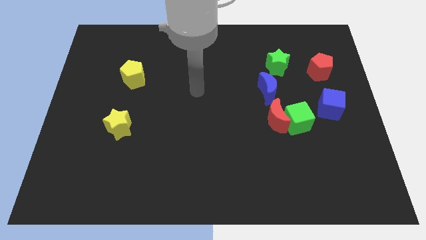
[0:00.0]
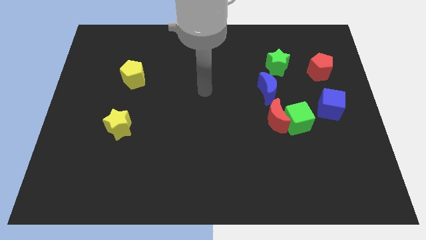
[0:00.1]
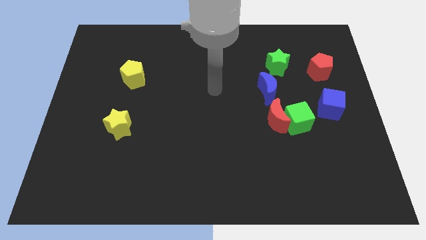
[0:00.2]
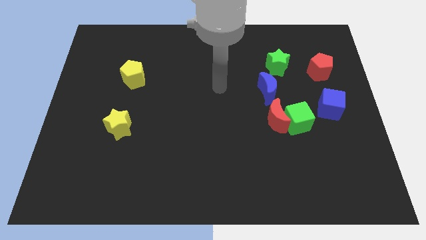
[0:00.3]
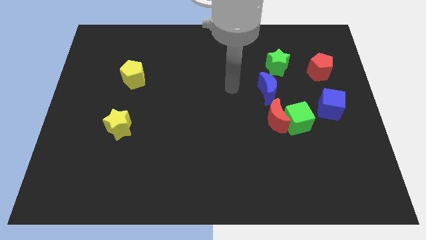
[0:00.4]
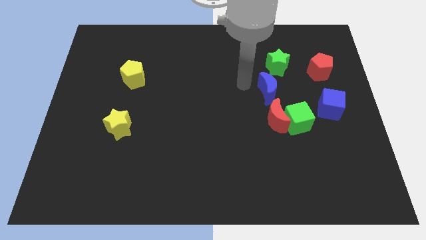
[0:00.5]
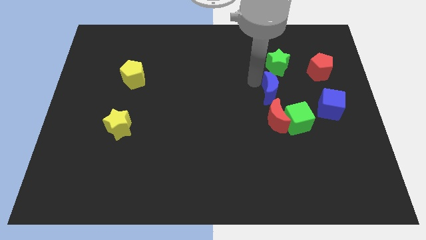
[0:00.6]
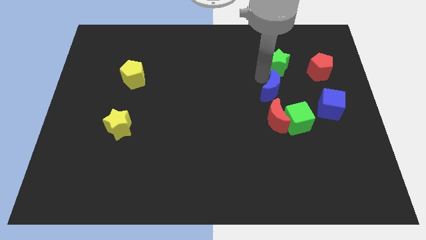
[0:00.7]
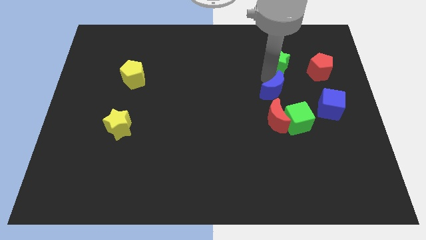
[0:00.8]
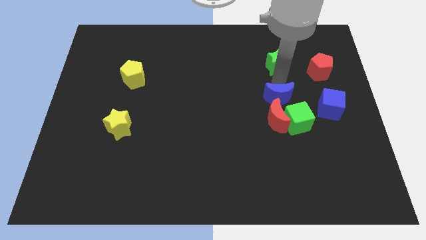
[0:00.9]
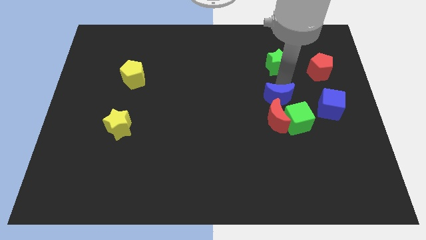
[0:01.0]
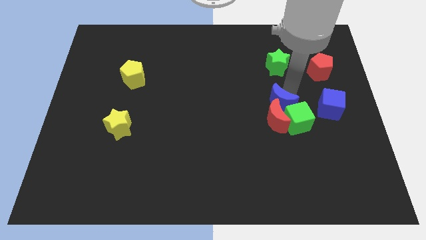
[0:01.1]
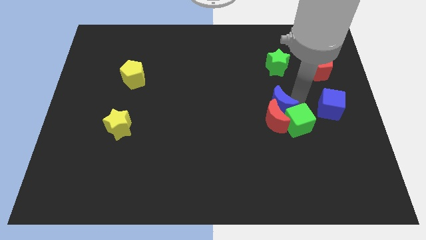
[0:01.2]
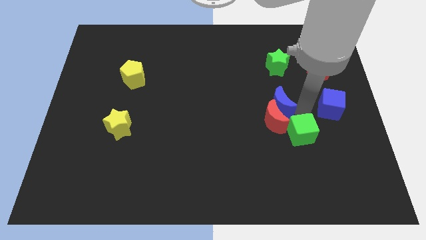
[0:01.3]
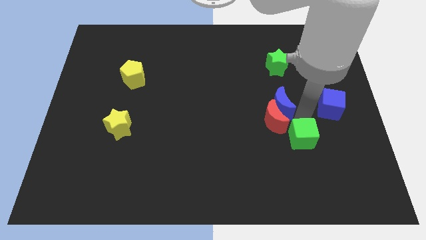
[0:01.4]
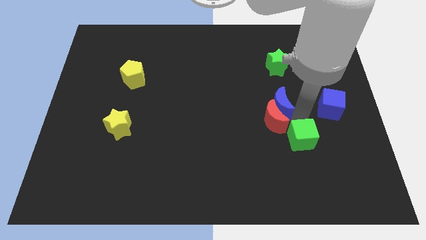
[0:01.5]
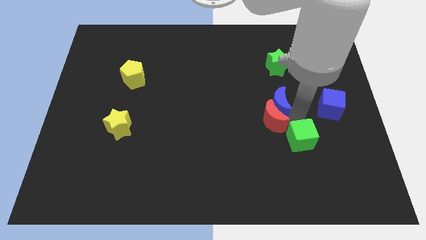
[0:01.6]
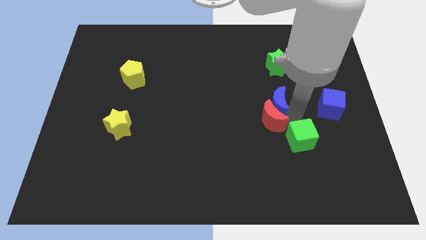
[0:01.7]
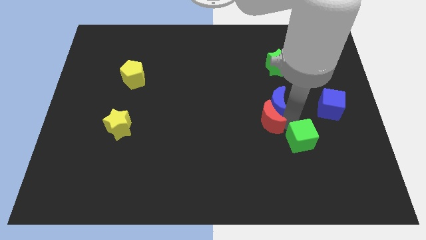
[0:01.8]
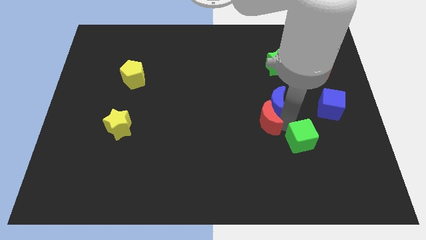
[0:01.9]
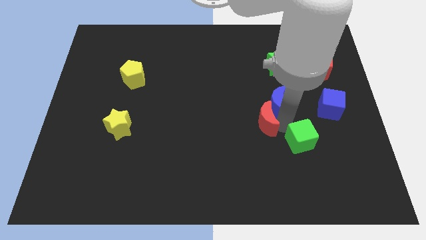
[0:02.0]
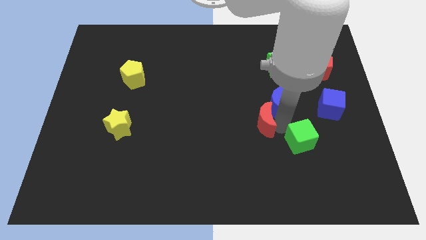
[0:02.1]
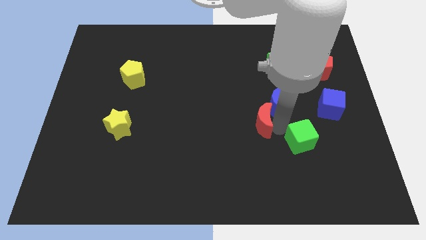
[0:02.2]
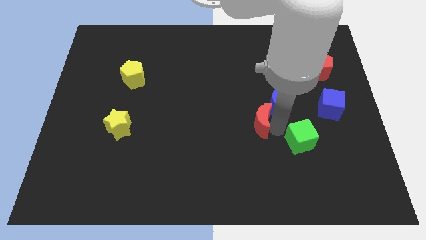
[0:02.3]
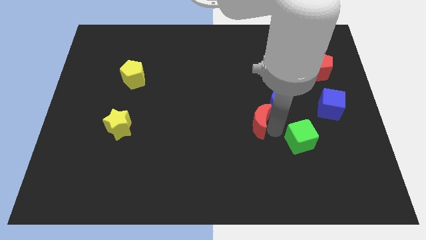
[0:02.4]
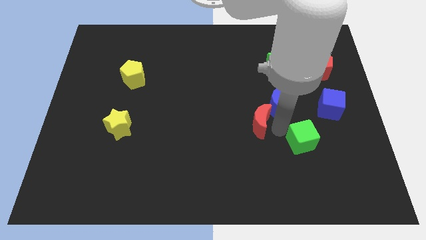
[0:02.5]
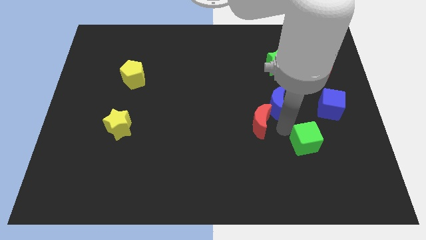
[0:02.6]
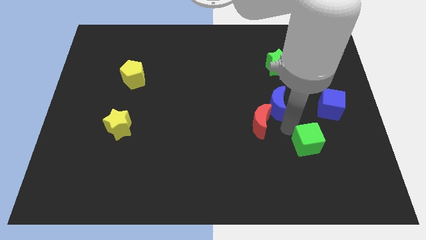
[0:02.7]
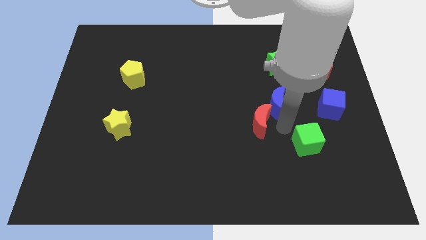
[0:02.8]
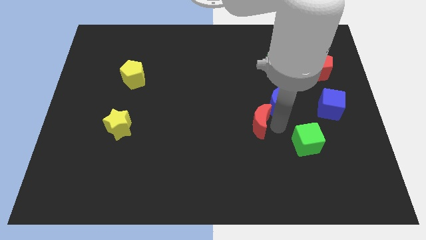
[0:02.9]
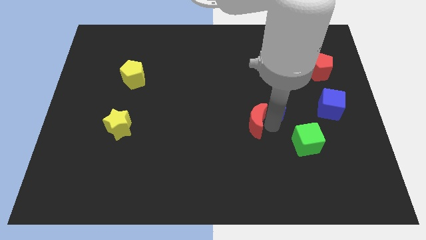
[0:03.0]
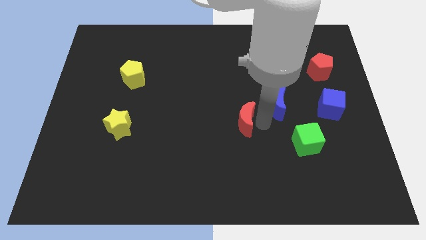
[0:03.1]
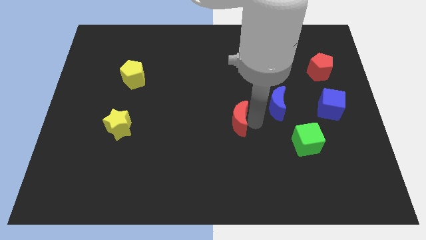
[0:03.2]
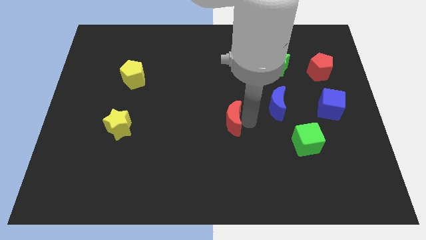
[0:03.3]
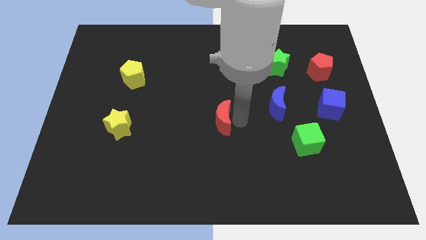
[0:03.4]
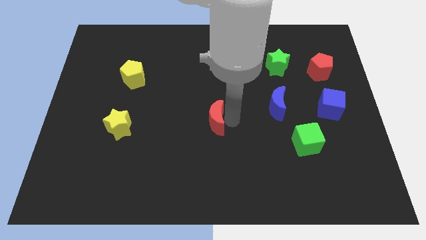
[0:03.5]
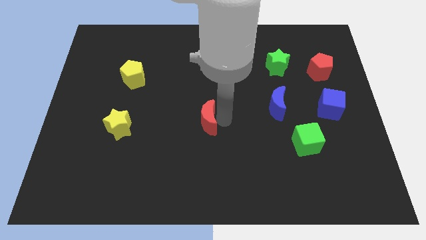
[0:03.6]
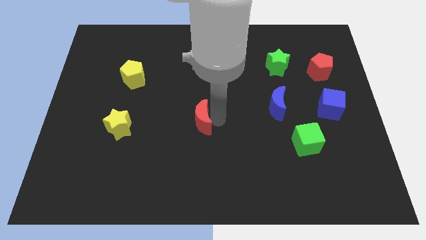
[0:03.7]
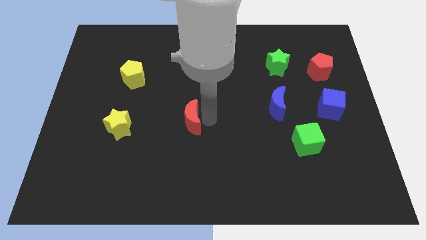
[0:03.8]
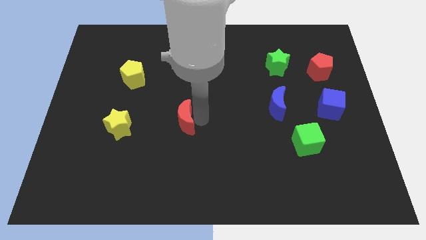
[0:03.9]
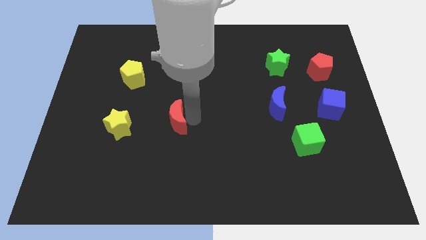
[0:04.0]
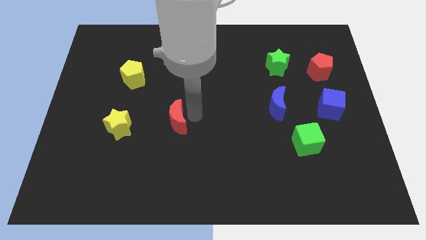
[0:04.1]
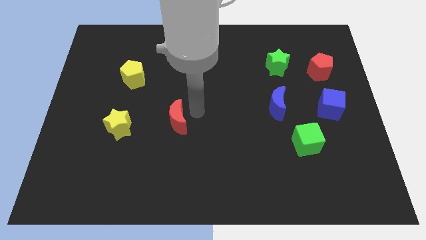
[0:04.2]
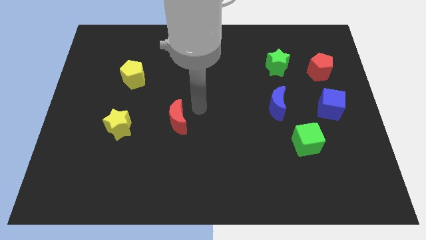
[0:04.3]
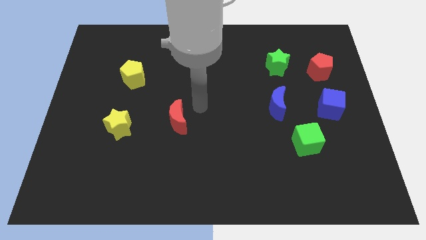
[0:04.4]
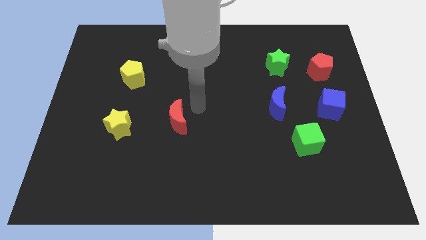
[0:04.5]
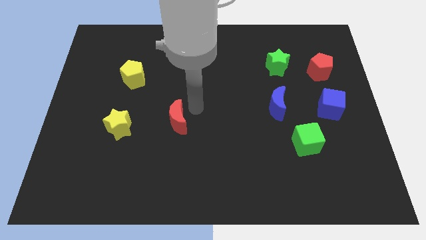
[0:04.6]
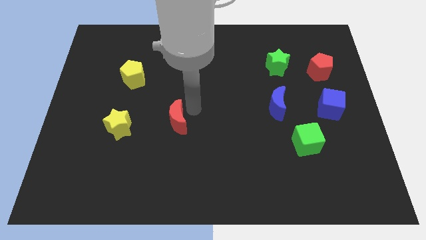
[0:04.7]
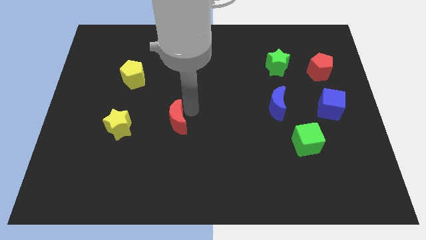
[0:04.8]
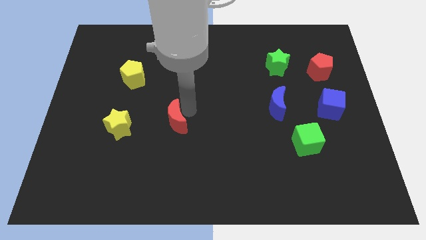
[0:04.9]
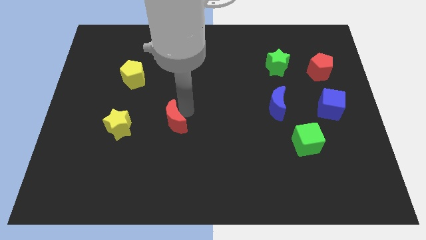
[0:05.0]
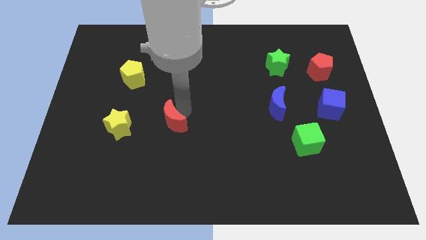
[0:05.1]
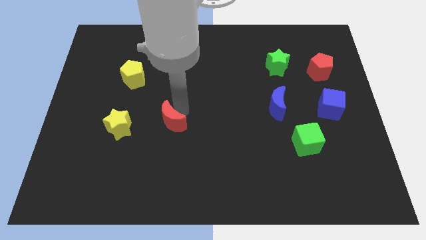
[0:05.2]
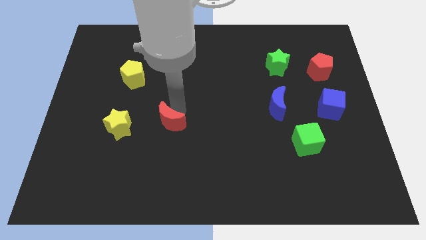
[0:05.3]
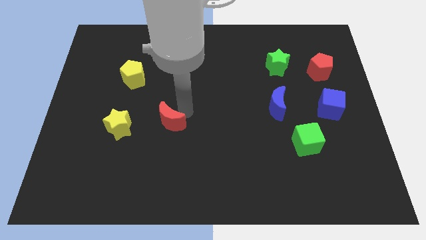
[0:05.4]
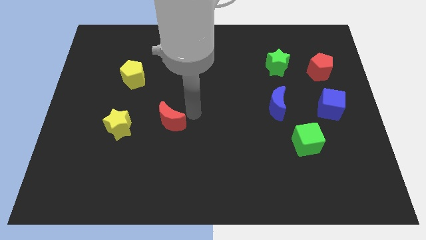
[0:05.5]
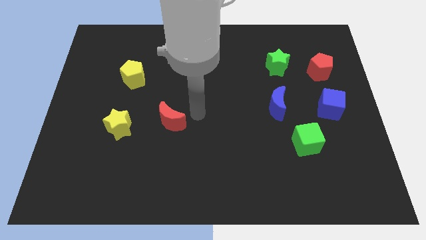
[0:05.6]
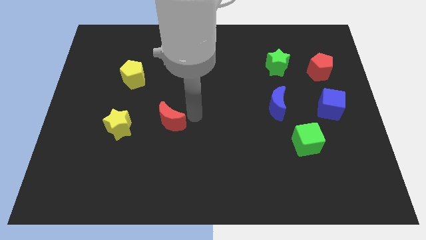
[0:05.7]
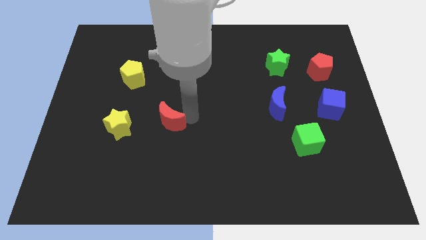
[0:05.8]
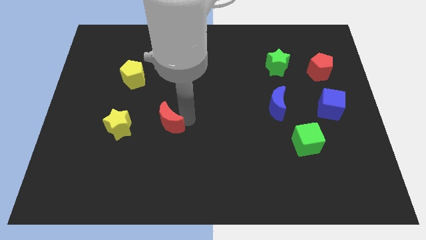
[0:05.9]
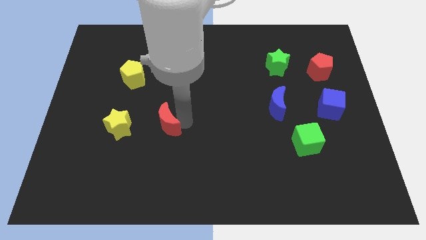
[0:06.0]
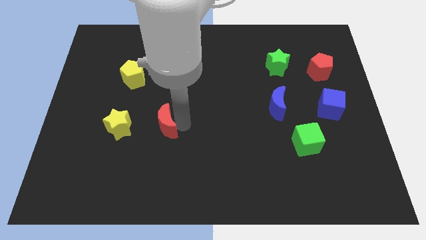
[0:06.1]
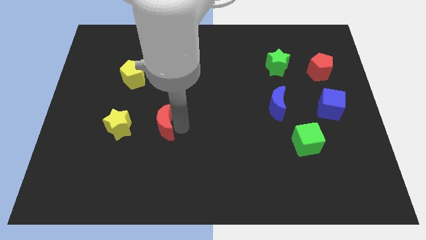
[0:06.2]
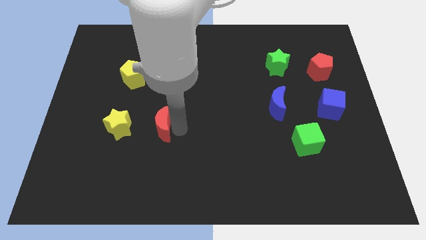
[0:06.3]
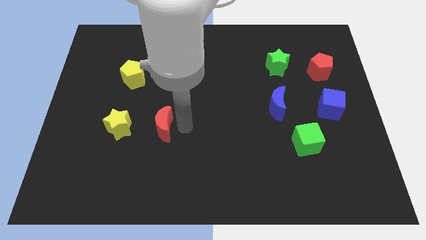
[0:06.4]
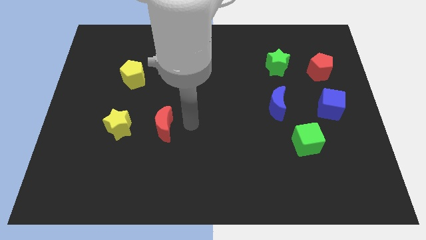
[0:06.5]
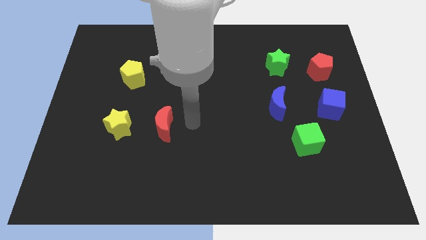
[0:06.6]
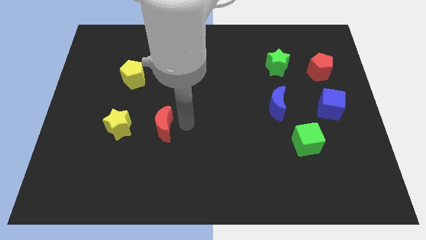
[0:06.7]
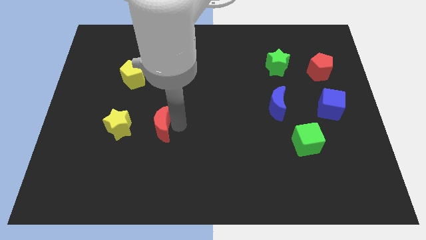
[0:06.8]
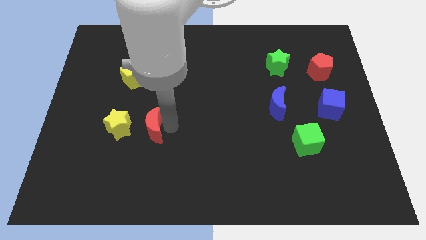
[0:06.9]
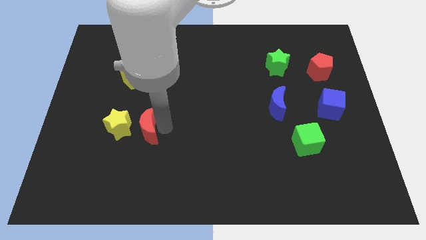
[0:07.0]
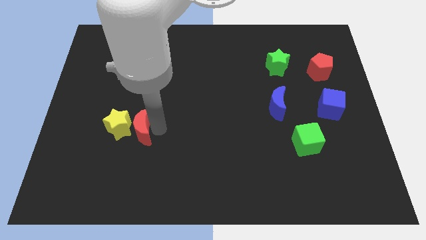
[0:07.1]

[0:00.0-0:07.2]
push the red moon close to the yellow star

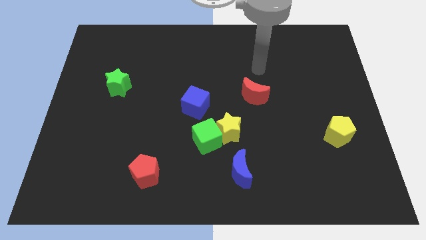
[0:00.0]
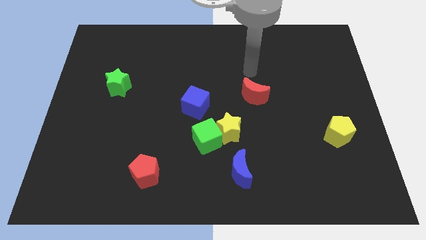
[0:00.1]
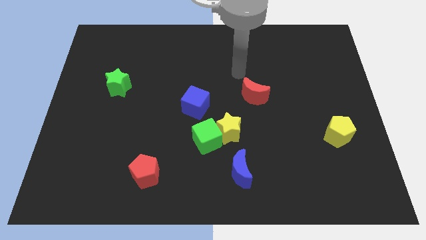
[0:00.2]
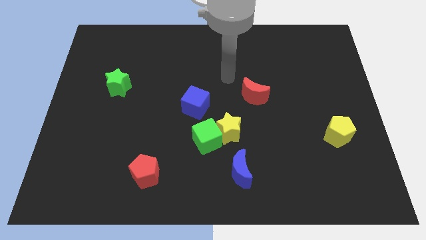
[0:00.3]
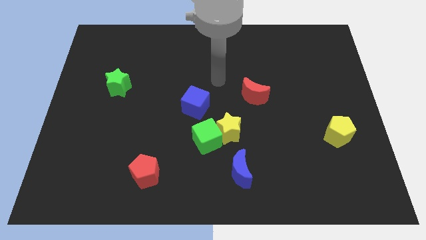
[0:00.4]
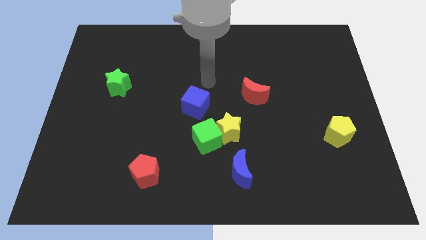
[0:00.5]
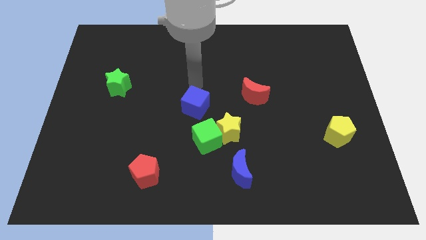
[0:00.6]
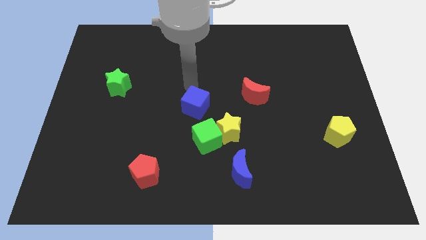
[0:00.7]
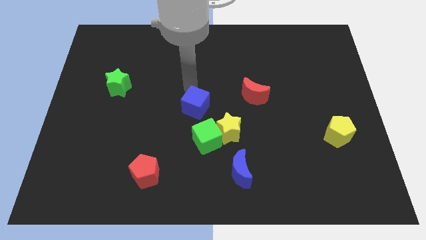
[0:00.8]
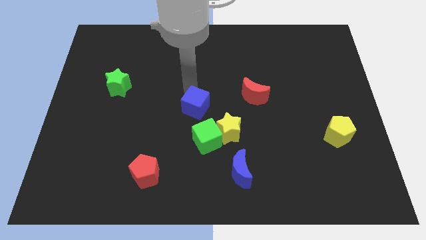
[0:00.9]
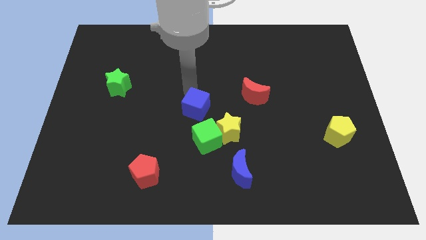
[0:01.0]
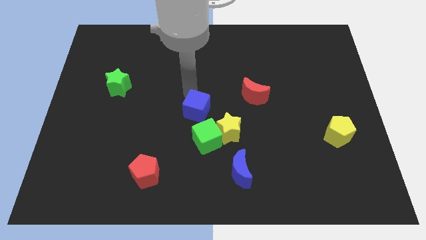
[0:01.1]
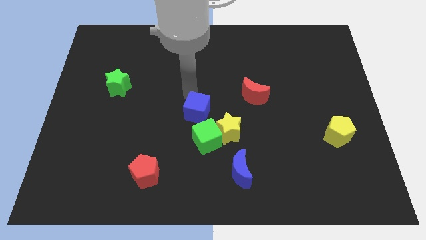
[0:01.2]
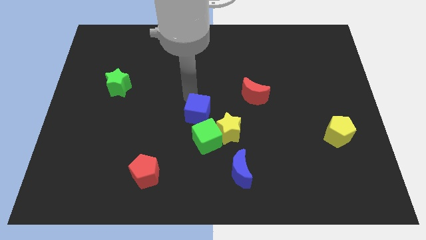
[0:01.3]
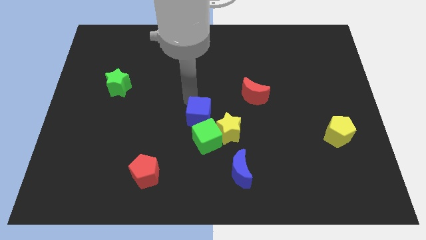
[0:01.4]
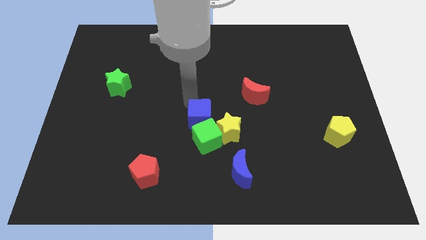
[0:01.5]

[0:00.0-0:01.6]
move the blue cube next to the green cube
